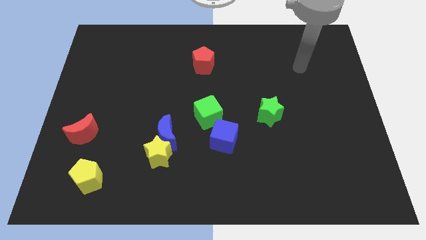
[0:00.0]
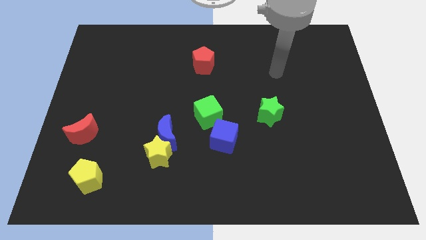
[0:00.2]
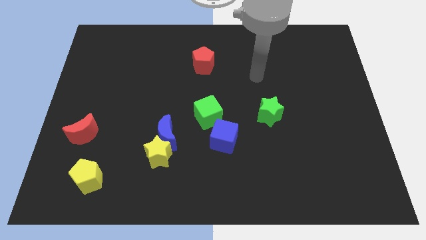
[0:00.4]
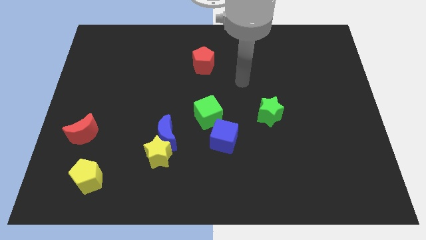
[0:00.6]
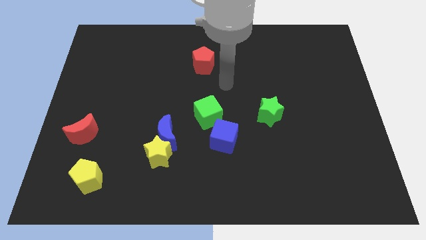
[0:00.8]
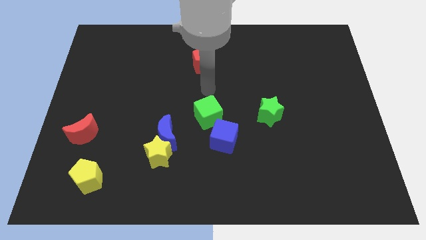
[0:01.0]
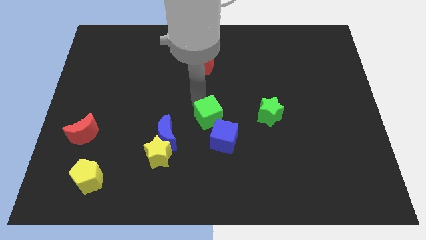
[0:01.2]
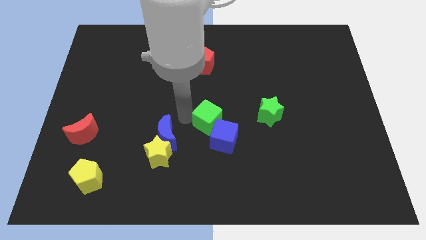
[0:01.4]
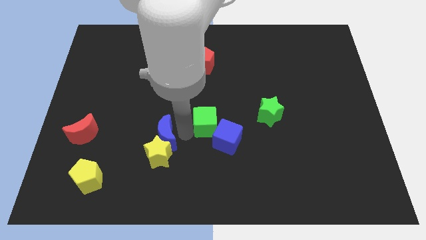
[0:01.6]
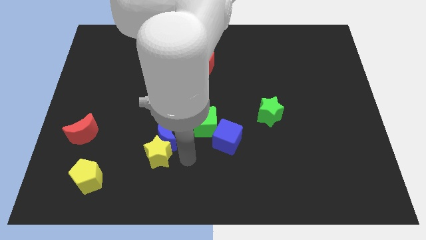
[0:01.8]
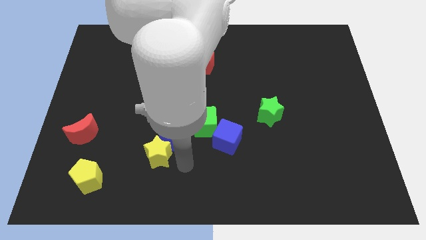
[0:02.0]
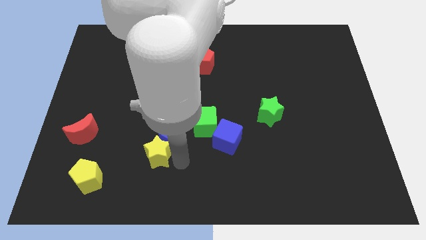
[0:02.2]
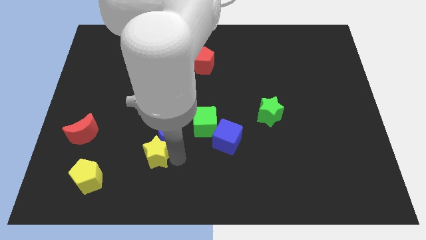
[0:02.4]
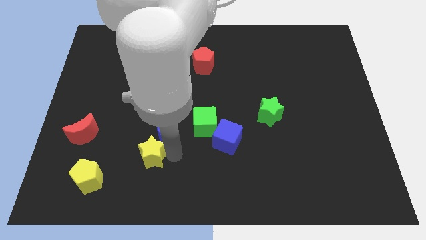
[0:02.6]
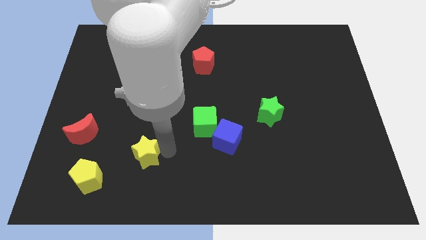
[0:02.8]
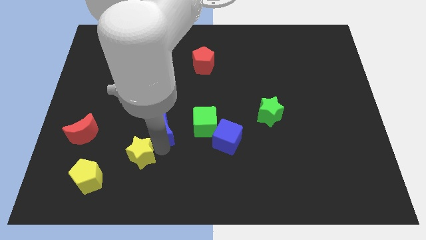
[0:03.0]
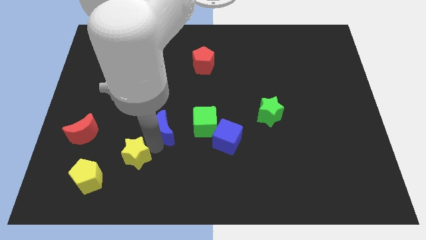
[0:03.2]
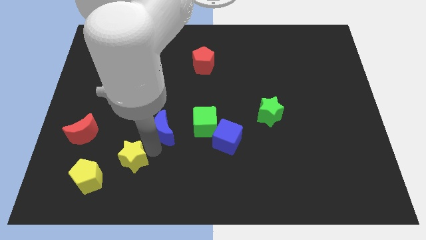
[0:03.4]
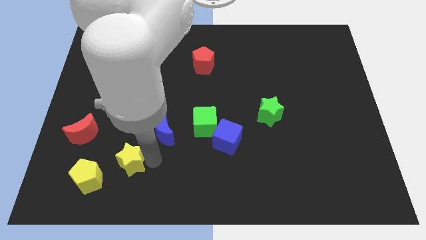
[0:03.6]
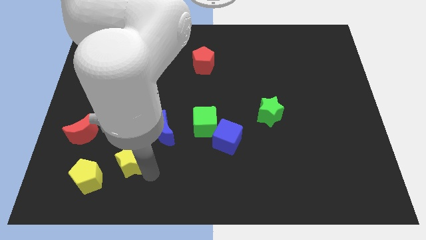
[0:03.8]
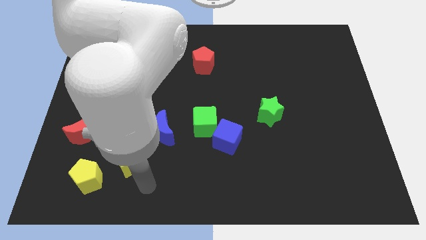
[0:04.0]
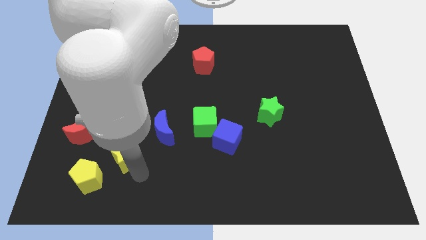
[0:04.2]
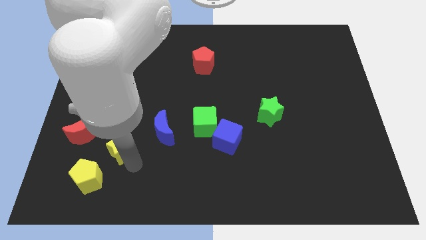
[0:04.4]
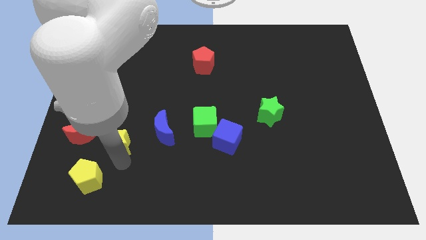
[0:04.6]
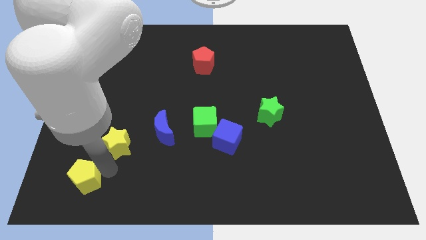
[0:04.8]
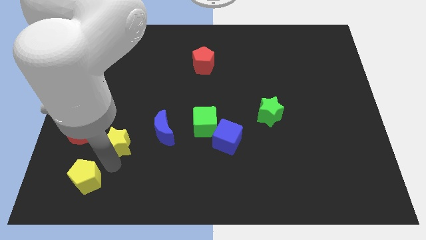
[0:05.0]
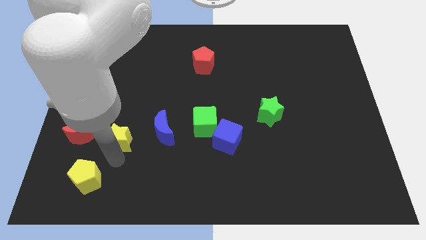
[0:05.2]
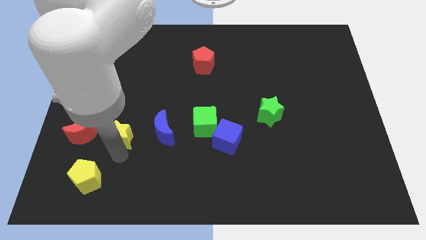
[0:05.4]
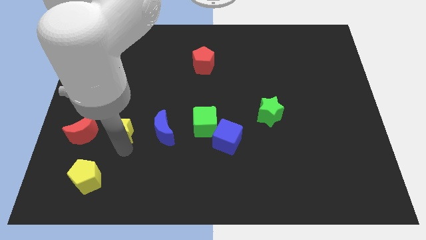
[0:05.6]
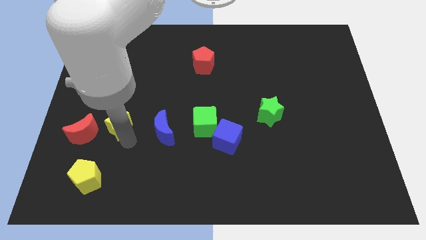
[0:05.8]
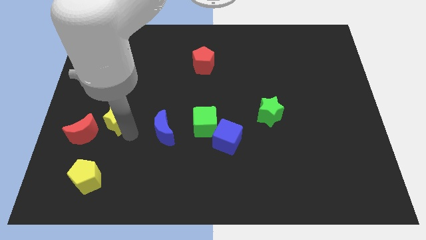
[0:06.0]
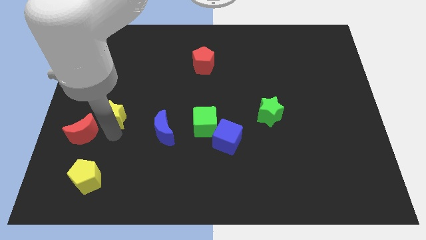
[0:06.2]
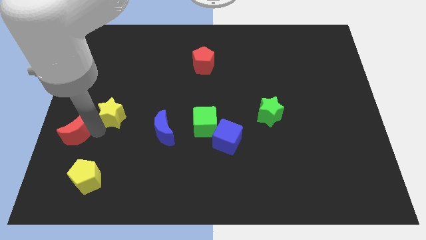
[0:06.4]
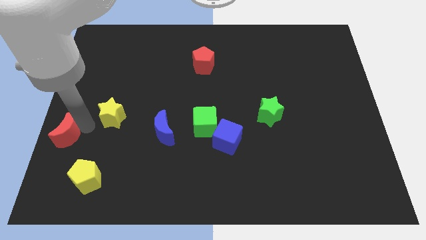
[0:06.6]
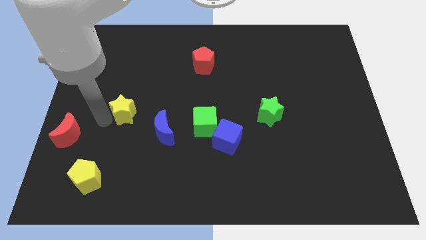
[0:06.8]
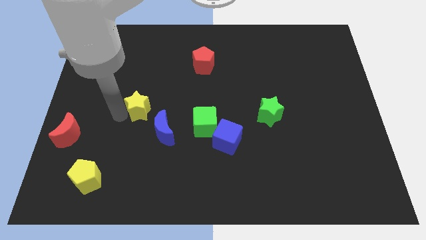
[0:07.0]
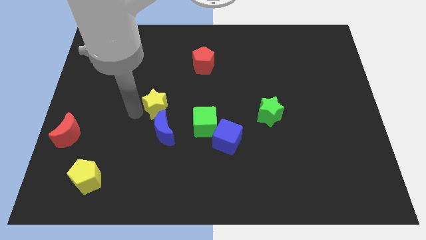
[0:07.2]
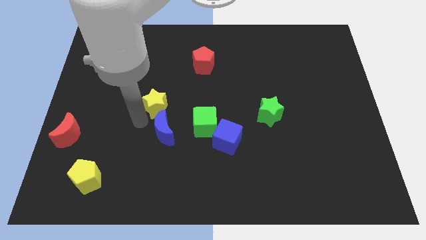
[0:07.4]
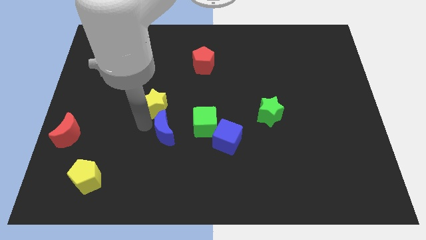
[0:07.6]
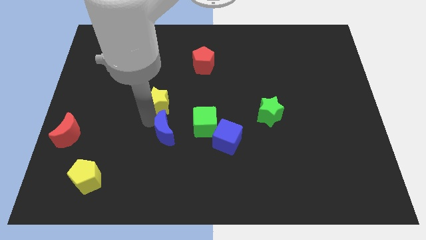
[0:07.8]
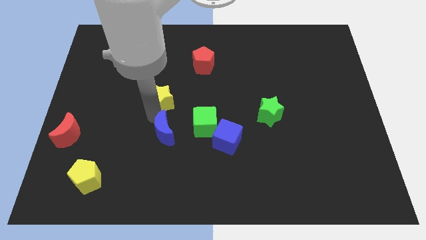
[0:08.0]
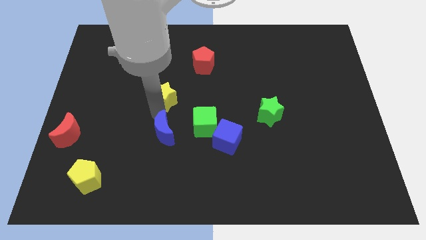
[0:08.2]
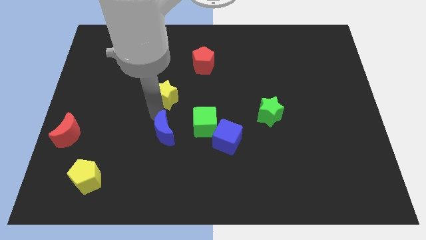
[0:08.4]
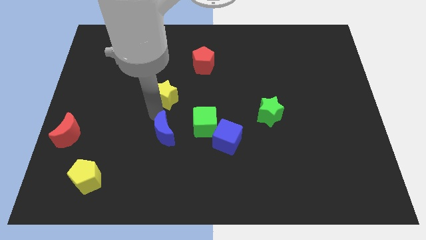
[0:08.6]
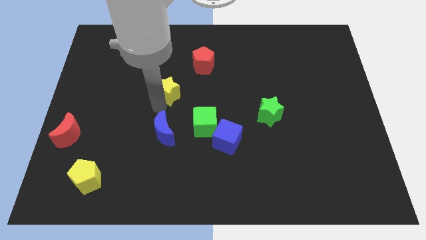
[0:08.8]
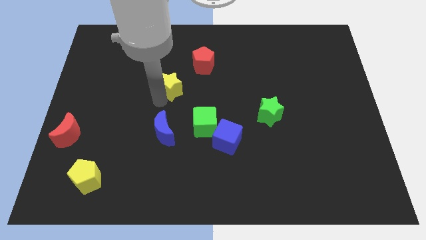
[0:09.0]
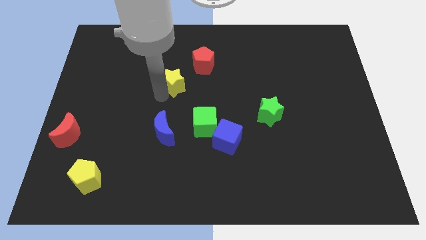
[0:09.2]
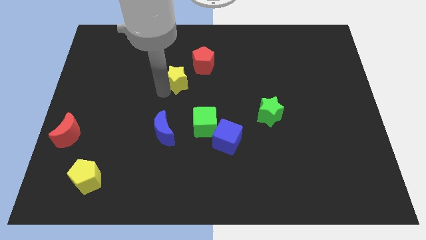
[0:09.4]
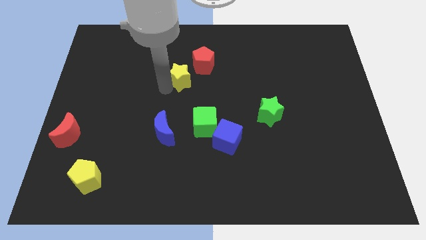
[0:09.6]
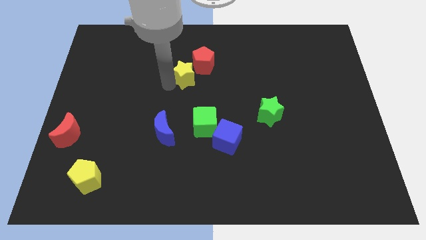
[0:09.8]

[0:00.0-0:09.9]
move the yellow star next to the red pentagon

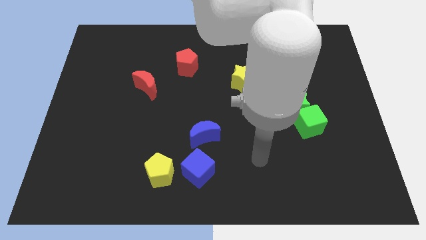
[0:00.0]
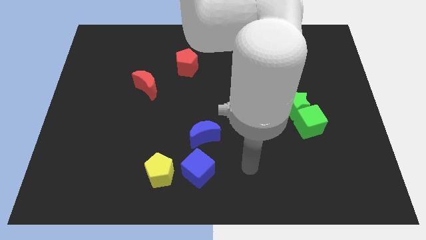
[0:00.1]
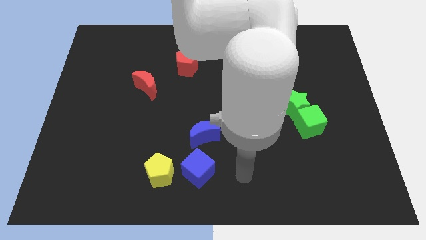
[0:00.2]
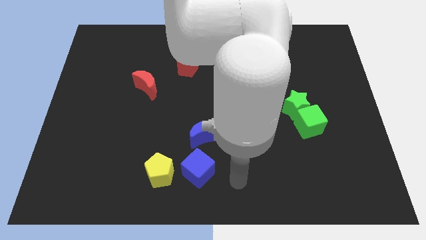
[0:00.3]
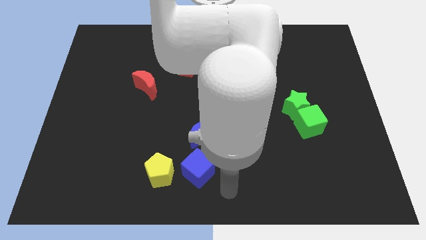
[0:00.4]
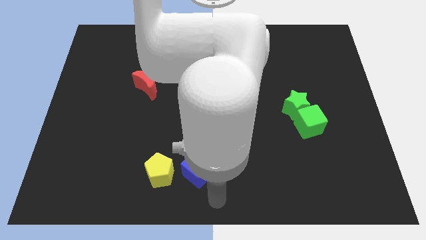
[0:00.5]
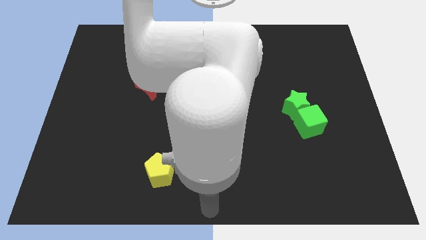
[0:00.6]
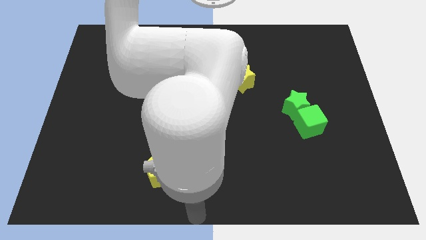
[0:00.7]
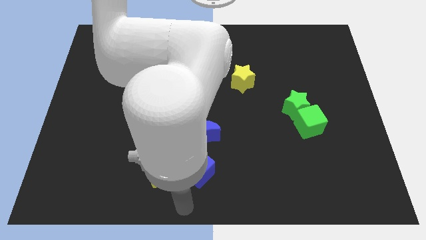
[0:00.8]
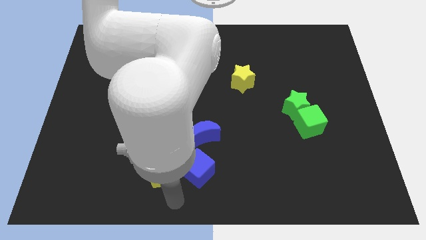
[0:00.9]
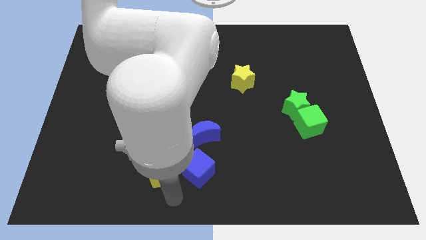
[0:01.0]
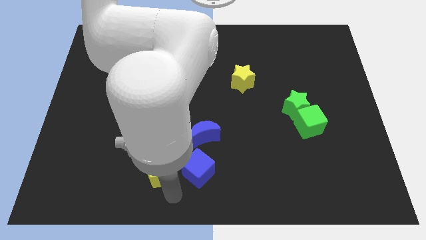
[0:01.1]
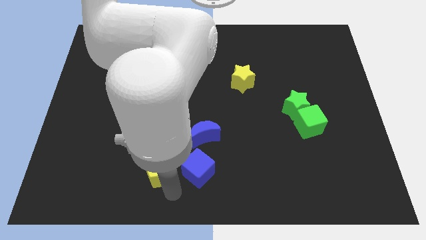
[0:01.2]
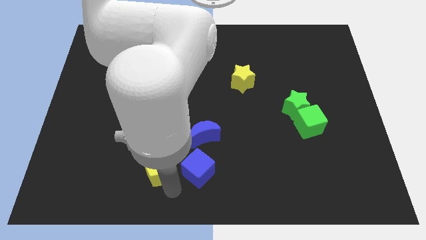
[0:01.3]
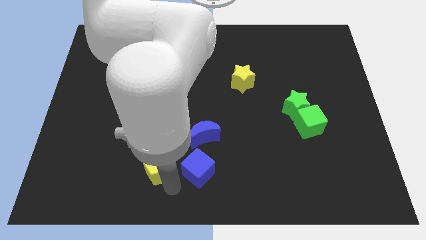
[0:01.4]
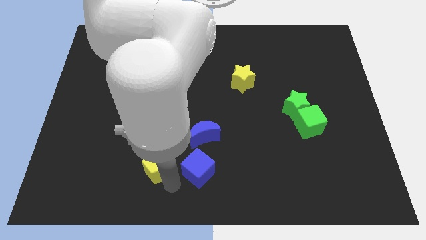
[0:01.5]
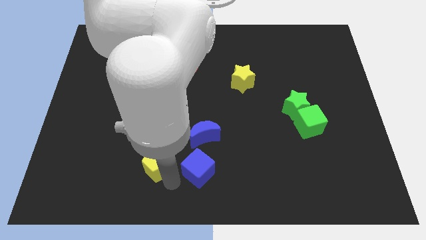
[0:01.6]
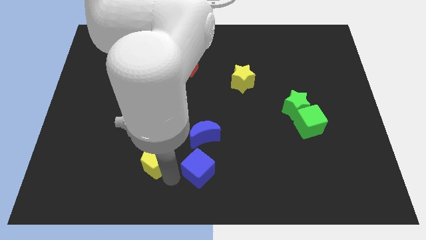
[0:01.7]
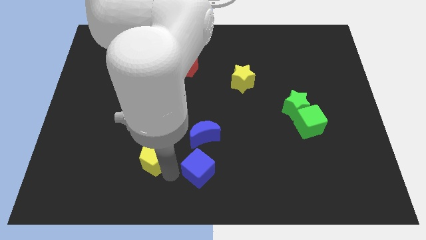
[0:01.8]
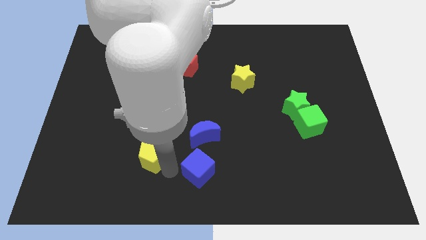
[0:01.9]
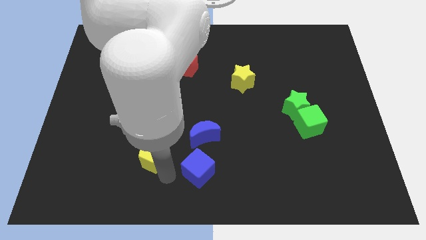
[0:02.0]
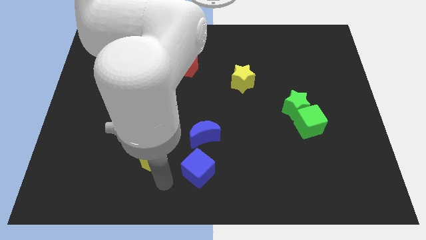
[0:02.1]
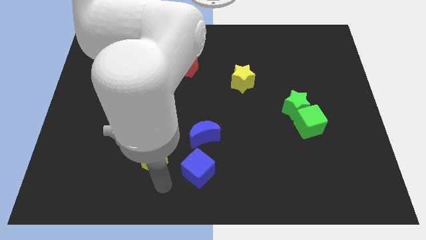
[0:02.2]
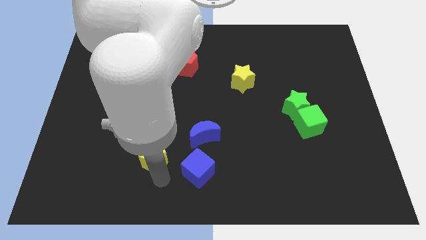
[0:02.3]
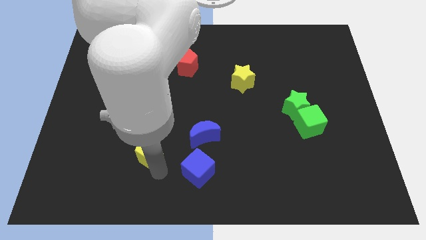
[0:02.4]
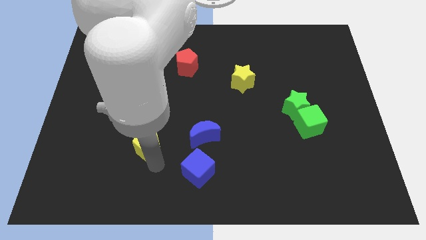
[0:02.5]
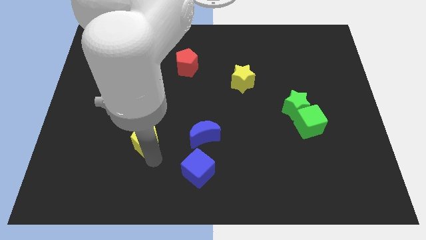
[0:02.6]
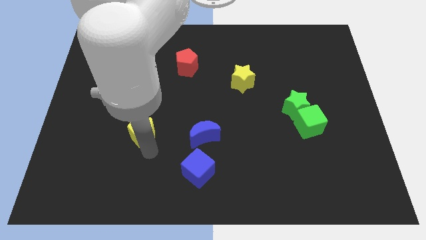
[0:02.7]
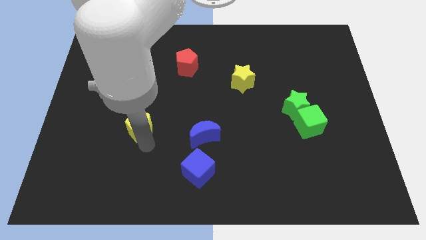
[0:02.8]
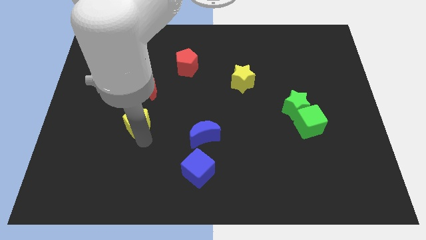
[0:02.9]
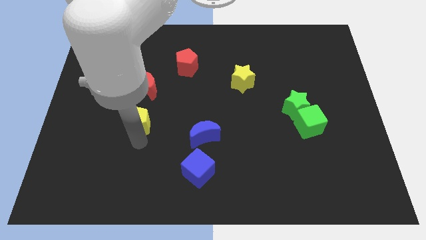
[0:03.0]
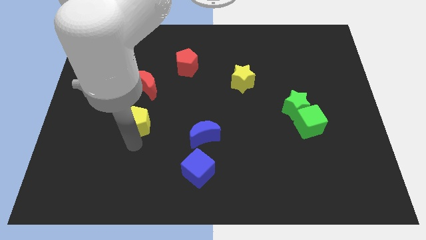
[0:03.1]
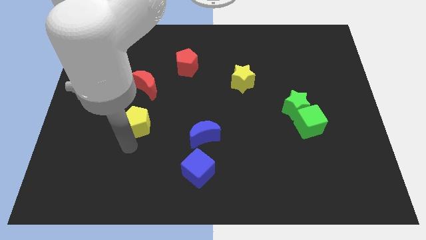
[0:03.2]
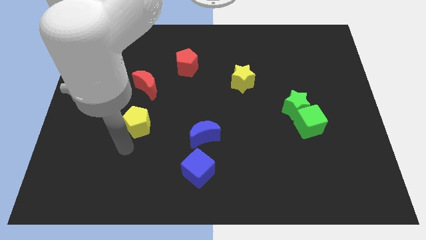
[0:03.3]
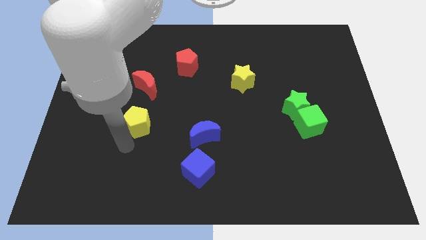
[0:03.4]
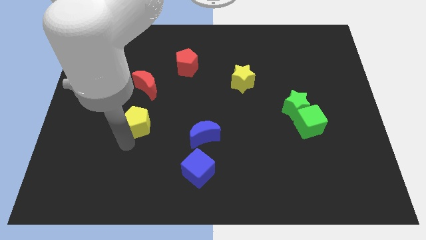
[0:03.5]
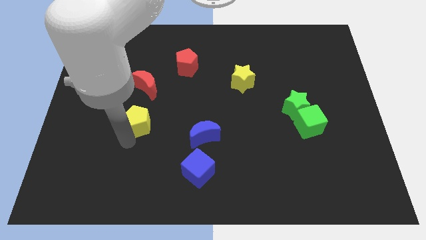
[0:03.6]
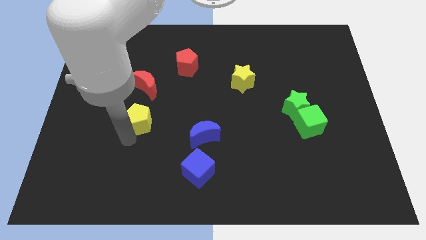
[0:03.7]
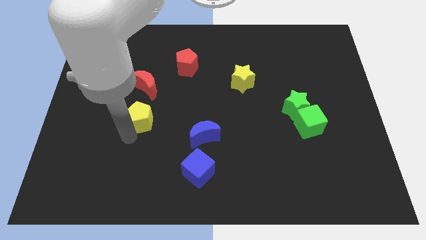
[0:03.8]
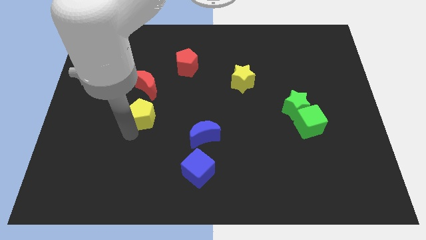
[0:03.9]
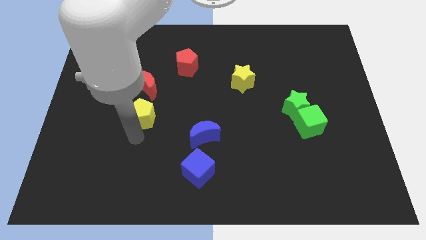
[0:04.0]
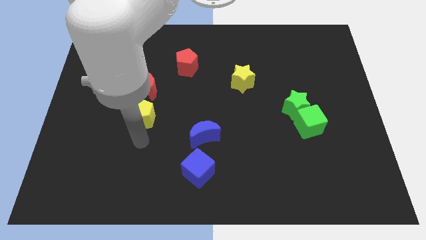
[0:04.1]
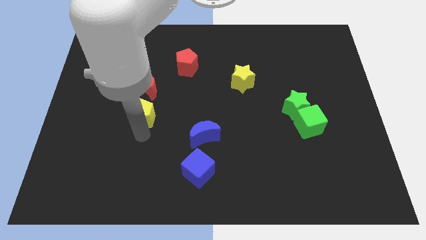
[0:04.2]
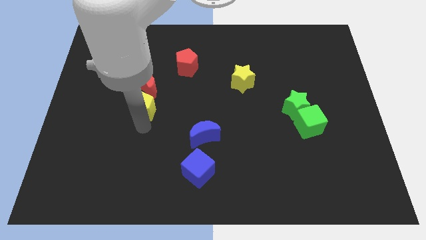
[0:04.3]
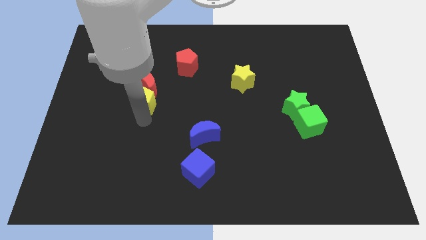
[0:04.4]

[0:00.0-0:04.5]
slide the yellow pentagon to the red moon
